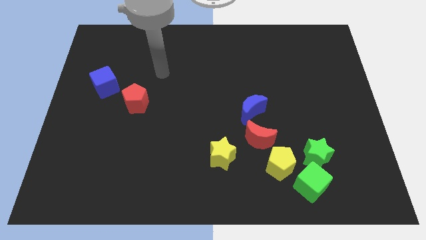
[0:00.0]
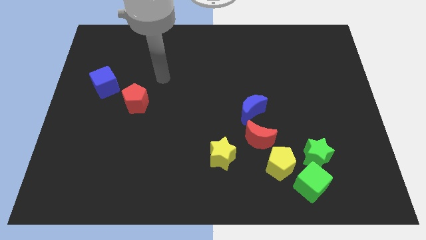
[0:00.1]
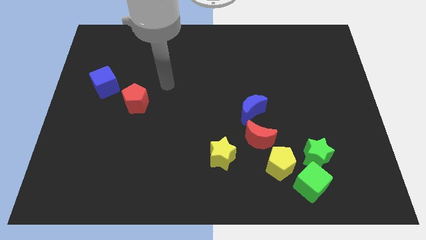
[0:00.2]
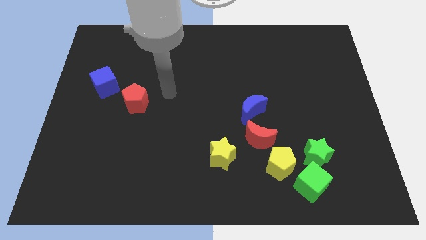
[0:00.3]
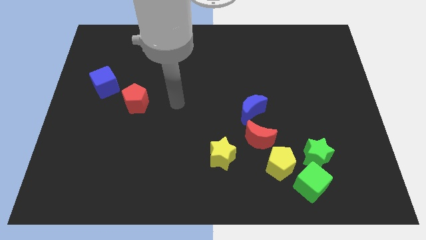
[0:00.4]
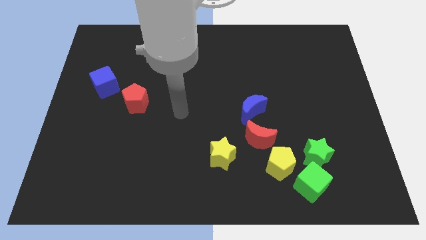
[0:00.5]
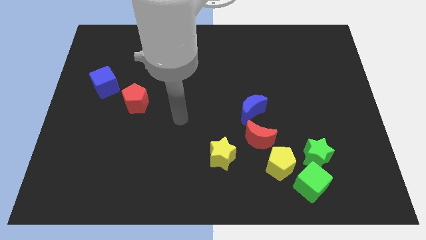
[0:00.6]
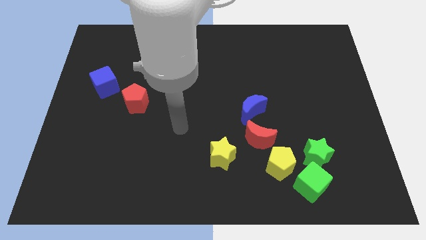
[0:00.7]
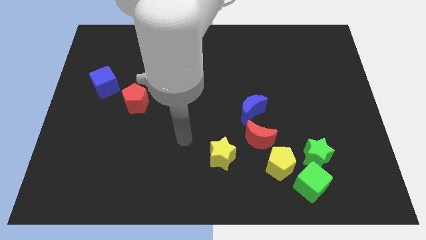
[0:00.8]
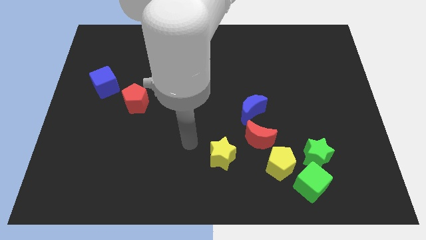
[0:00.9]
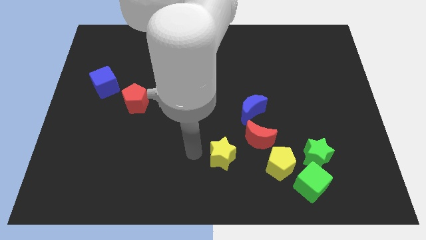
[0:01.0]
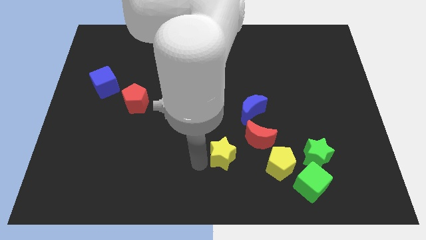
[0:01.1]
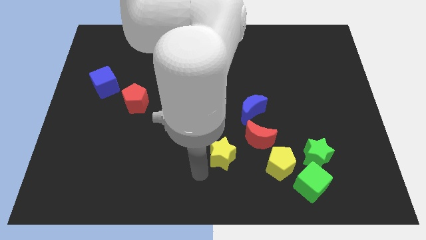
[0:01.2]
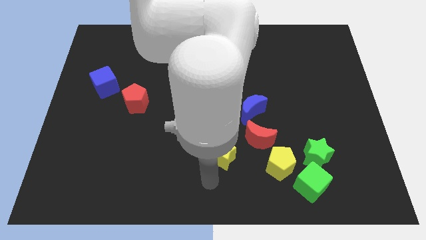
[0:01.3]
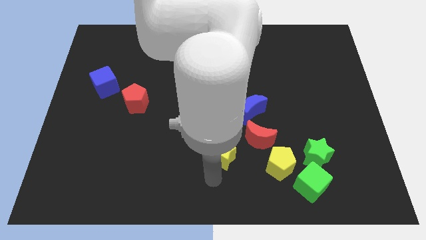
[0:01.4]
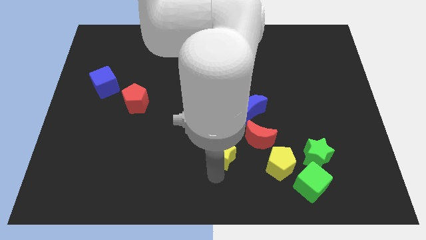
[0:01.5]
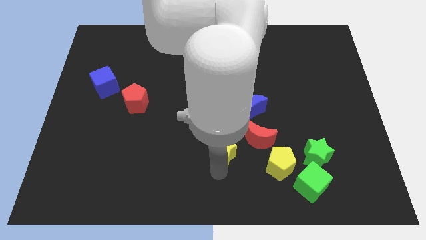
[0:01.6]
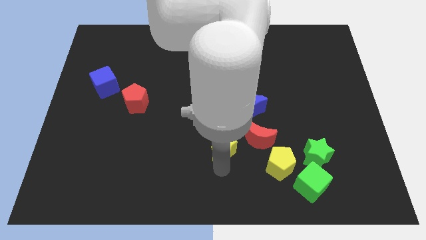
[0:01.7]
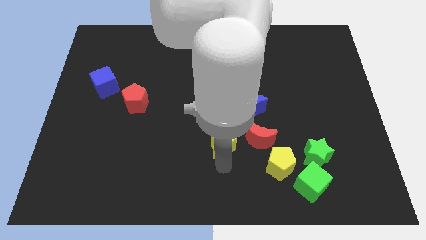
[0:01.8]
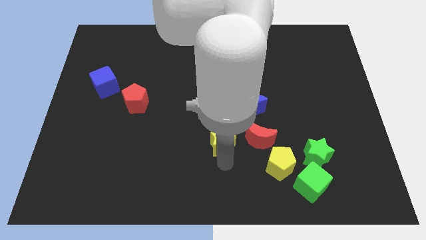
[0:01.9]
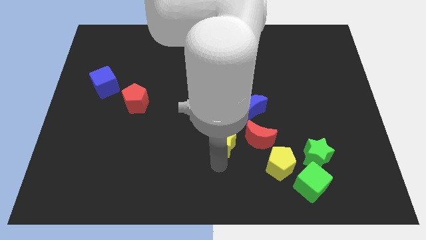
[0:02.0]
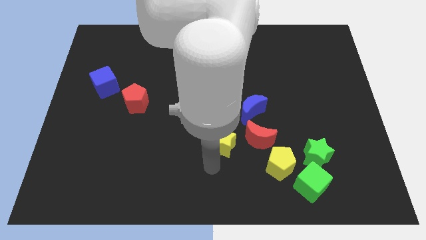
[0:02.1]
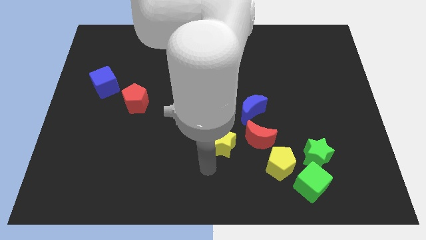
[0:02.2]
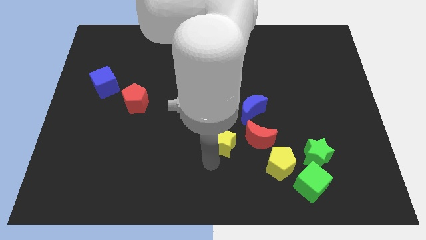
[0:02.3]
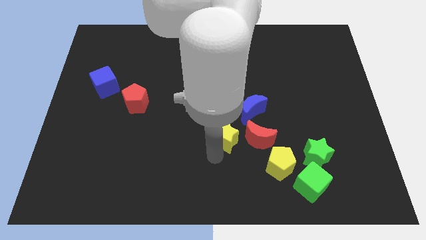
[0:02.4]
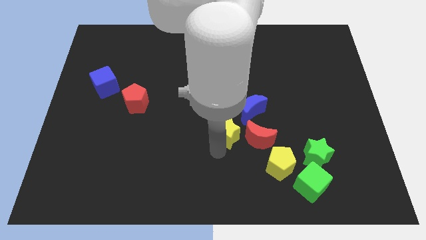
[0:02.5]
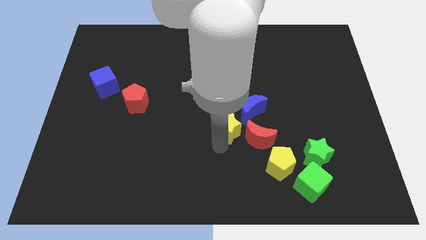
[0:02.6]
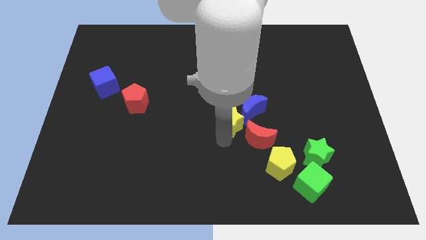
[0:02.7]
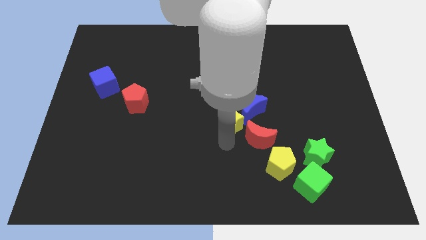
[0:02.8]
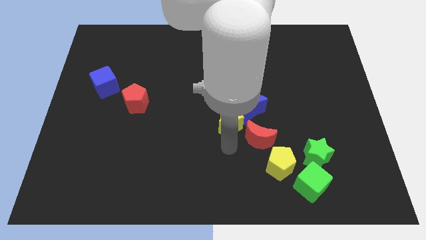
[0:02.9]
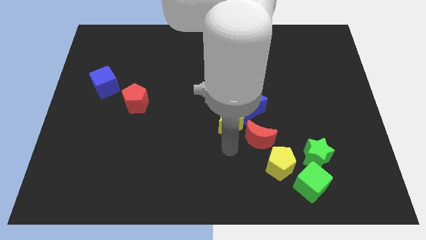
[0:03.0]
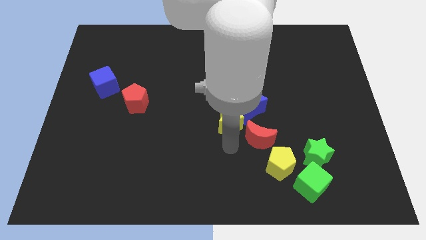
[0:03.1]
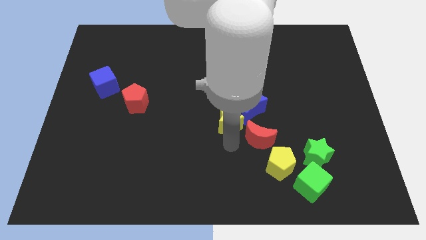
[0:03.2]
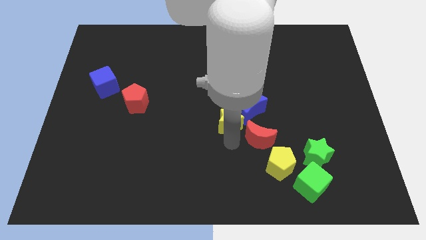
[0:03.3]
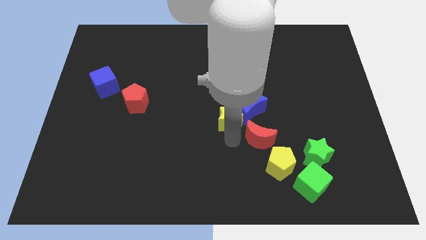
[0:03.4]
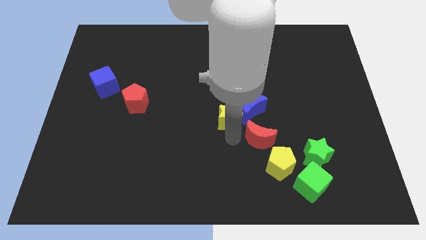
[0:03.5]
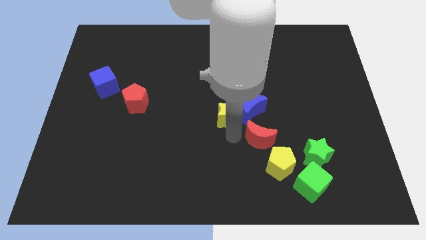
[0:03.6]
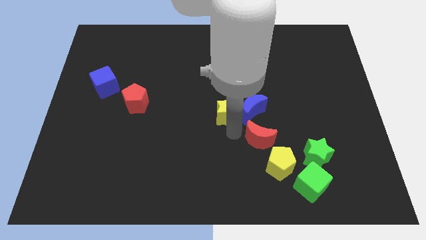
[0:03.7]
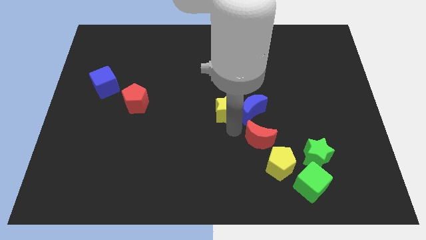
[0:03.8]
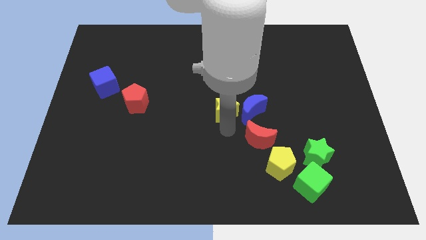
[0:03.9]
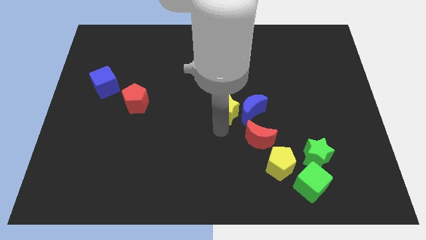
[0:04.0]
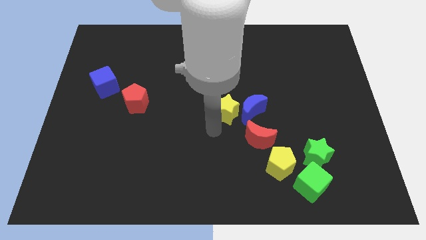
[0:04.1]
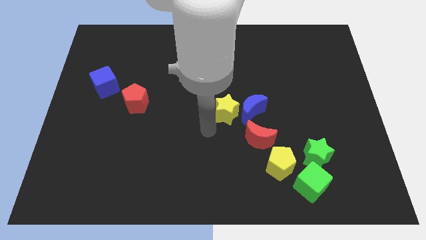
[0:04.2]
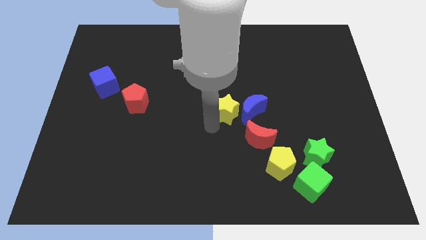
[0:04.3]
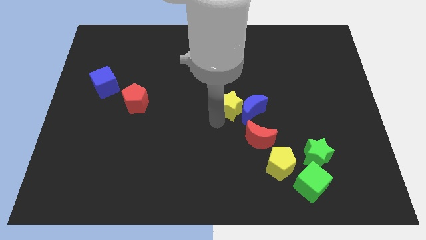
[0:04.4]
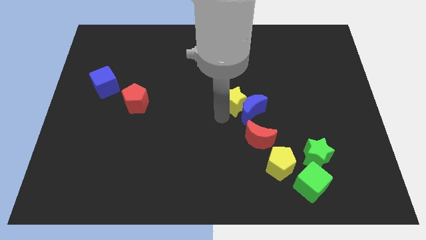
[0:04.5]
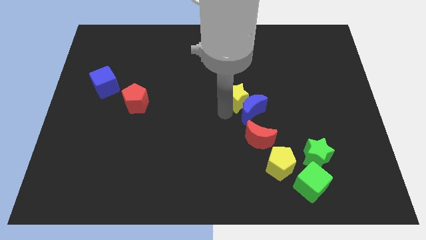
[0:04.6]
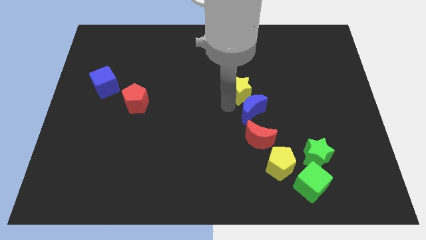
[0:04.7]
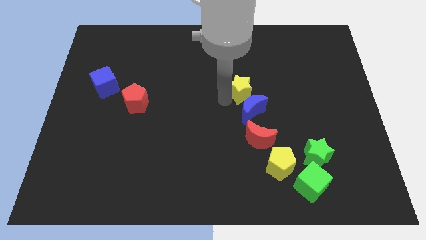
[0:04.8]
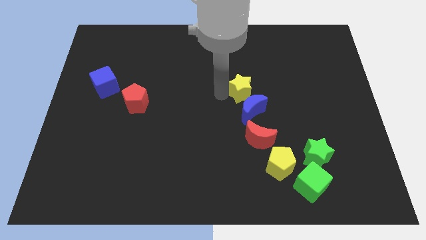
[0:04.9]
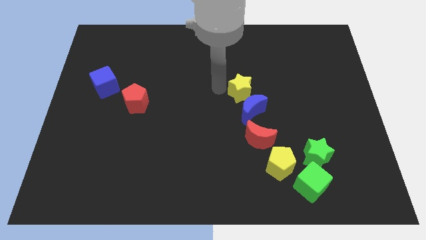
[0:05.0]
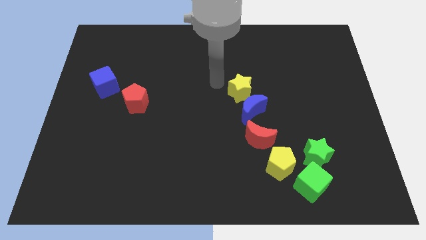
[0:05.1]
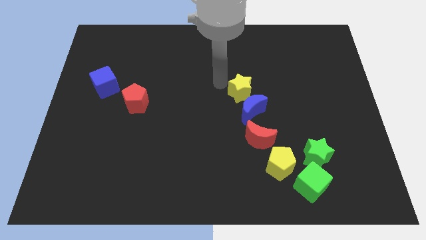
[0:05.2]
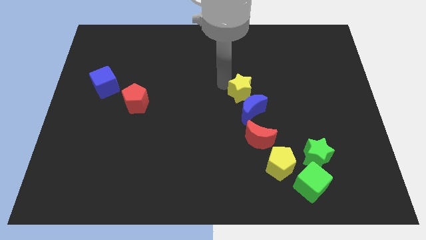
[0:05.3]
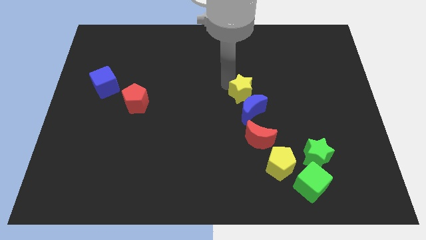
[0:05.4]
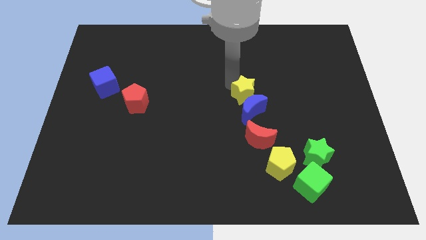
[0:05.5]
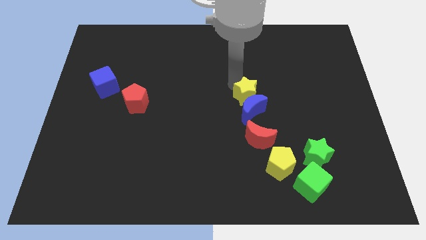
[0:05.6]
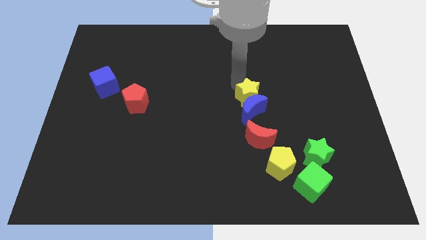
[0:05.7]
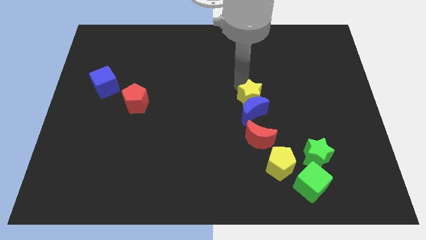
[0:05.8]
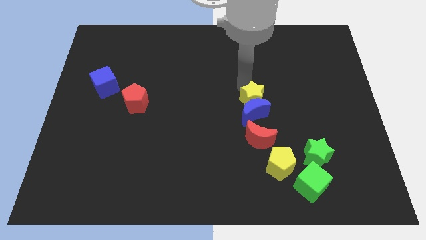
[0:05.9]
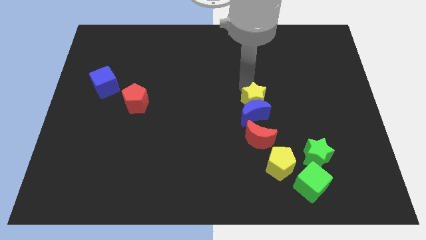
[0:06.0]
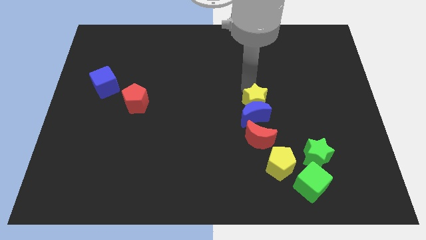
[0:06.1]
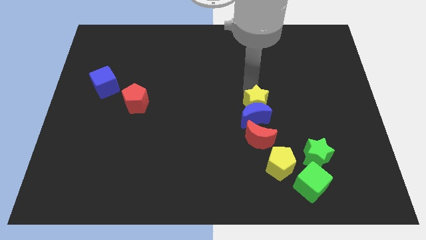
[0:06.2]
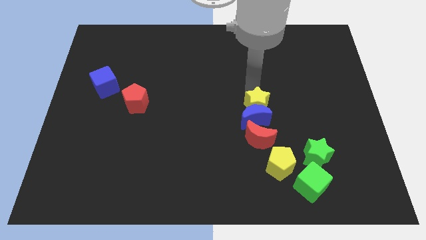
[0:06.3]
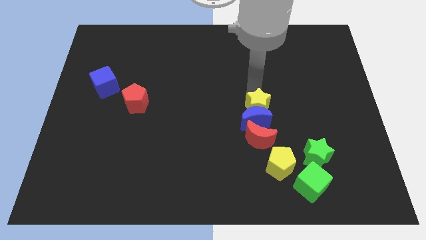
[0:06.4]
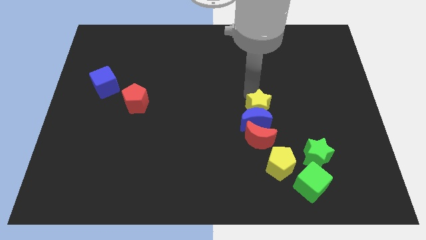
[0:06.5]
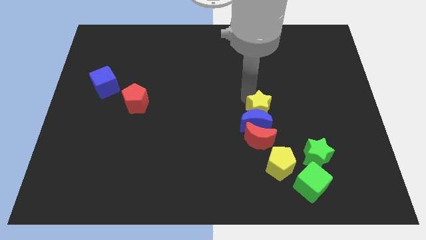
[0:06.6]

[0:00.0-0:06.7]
put the yellow star to the top side of the yellow pentagon

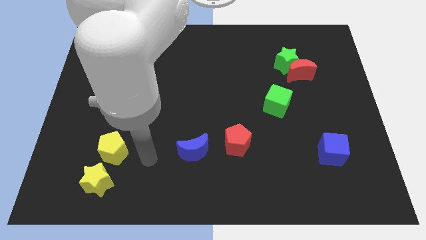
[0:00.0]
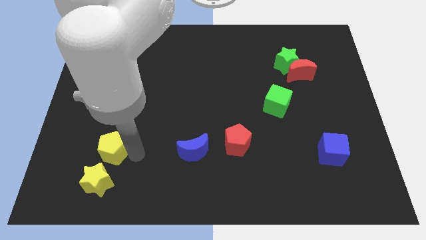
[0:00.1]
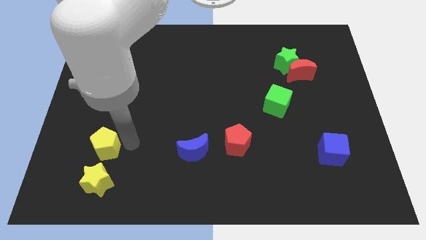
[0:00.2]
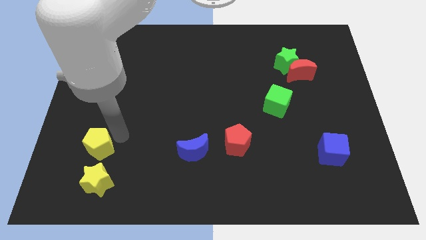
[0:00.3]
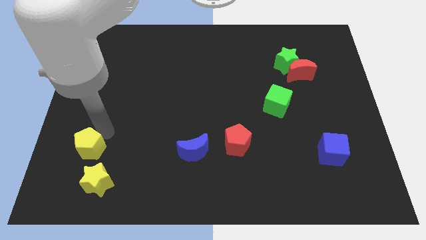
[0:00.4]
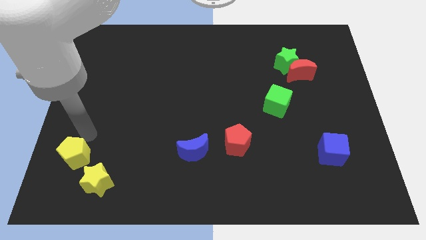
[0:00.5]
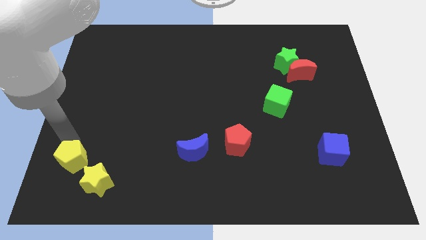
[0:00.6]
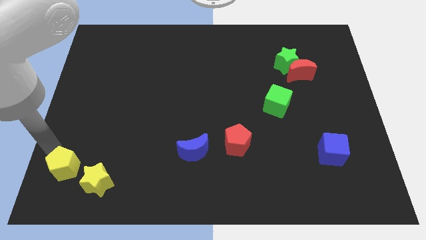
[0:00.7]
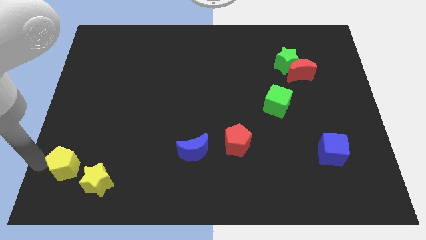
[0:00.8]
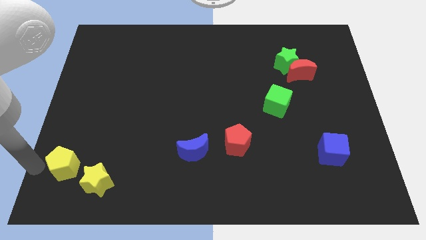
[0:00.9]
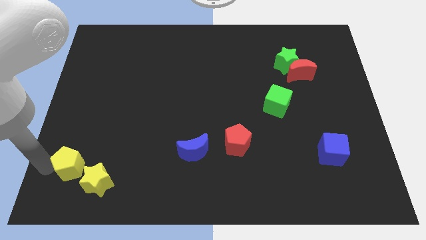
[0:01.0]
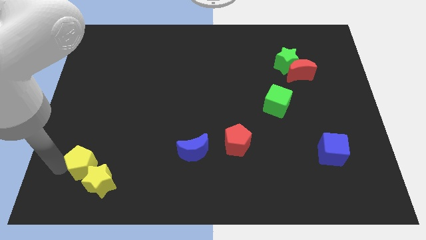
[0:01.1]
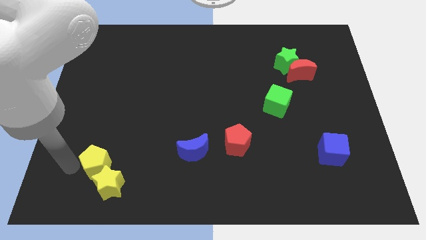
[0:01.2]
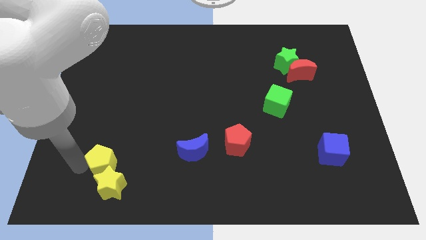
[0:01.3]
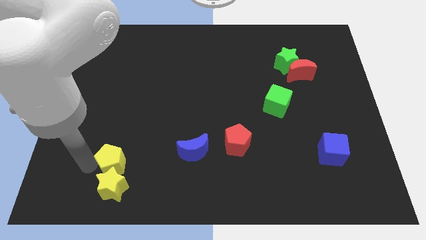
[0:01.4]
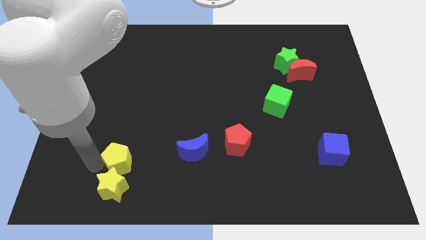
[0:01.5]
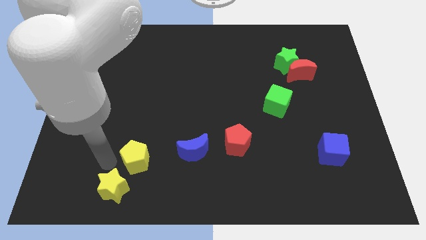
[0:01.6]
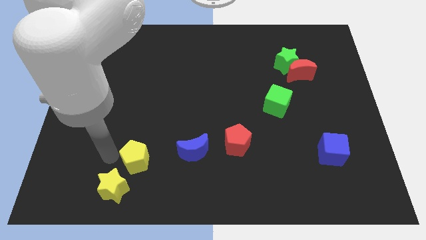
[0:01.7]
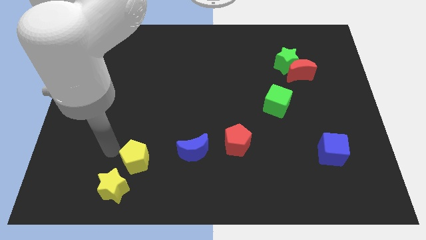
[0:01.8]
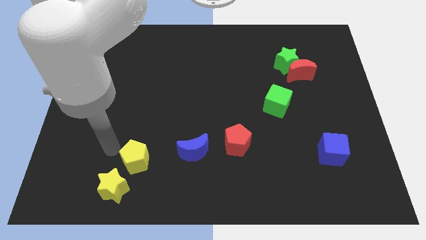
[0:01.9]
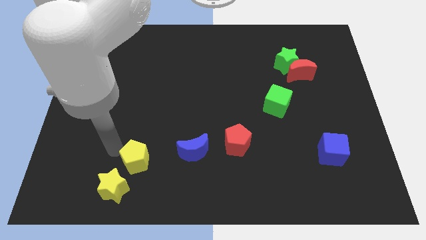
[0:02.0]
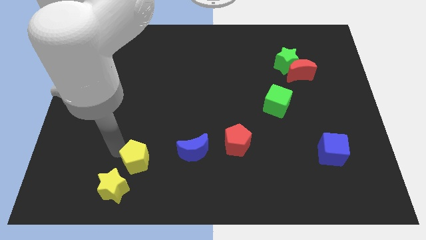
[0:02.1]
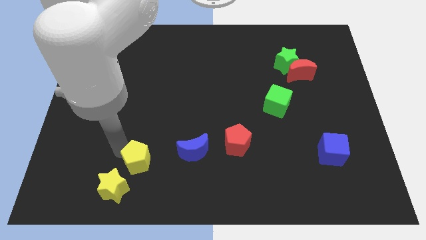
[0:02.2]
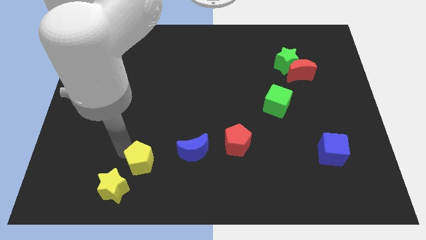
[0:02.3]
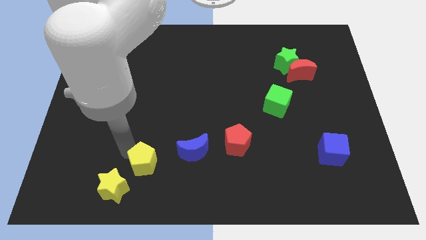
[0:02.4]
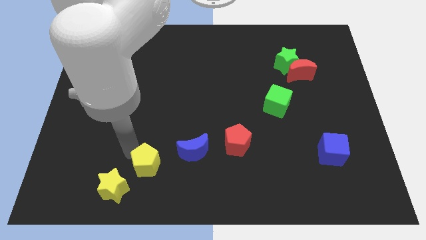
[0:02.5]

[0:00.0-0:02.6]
move the yellow pentagon to the bottom left of the blue moon
